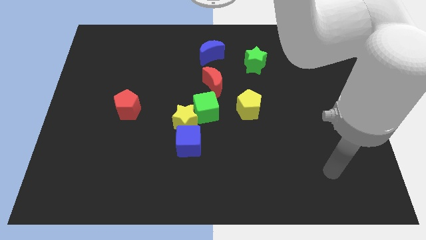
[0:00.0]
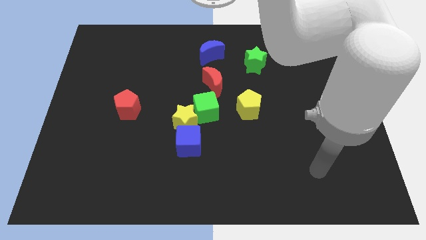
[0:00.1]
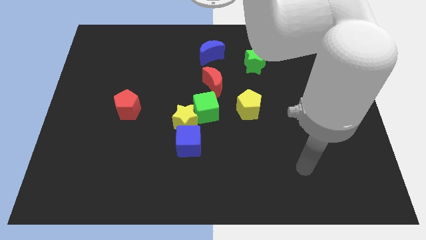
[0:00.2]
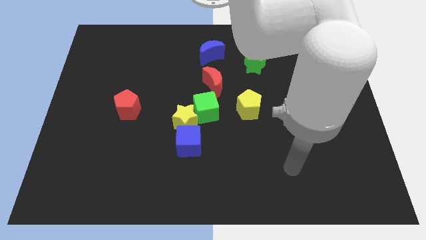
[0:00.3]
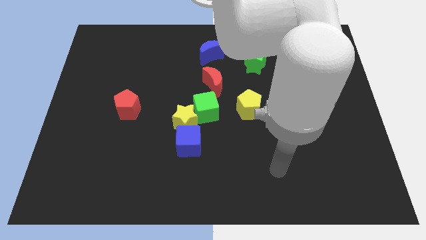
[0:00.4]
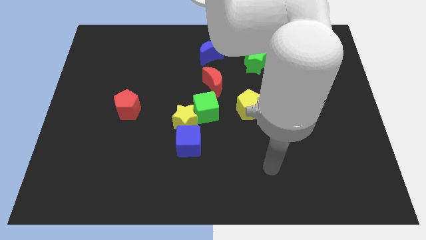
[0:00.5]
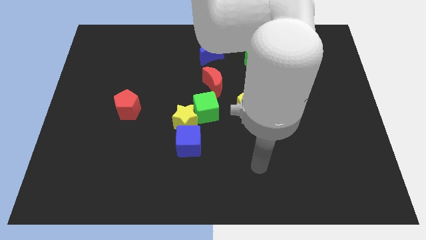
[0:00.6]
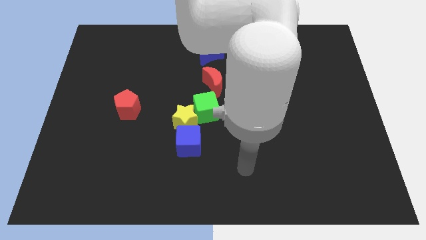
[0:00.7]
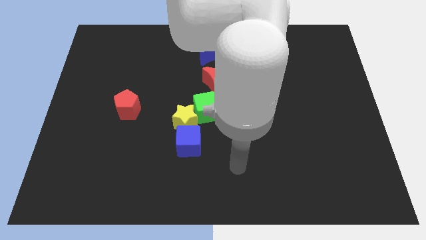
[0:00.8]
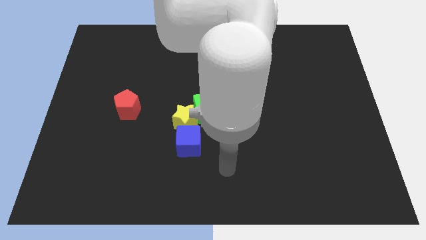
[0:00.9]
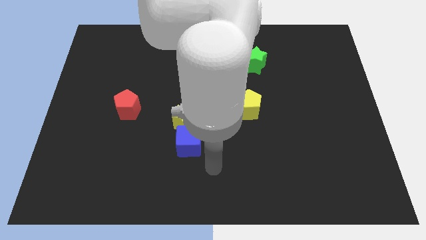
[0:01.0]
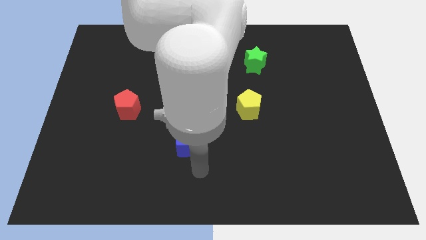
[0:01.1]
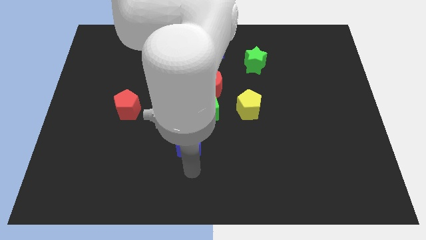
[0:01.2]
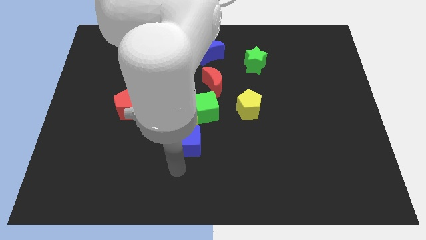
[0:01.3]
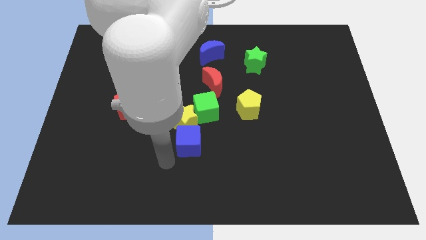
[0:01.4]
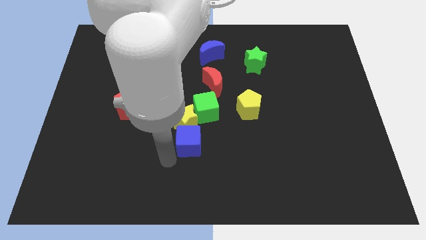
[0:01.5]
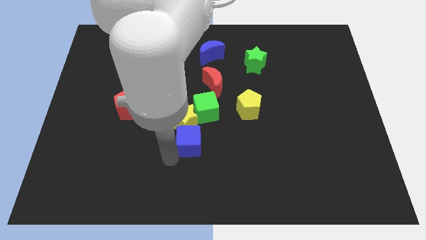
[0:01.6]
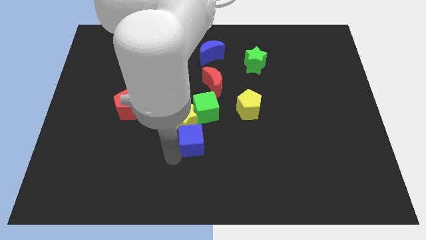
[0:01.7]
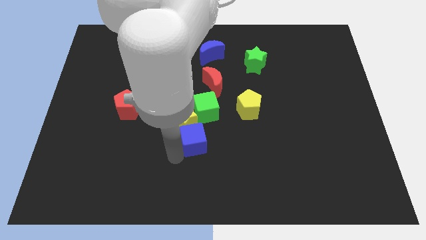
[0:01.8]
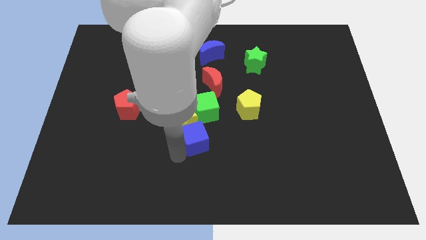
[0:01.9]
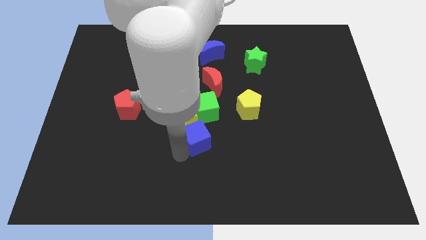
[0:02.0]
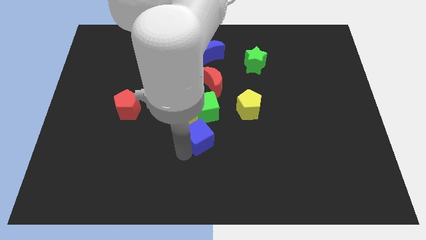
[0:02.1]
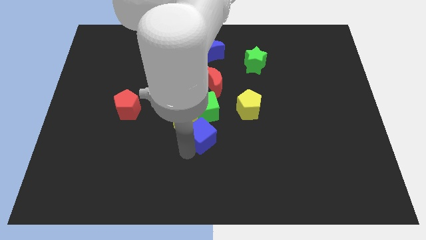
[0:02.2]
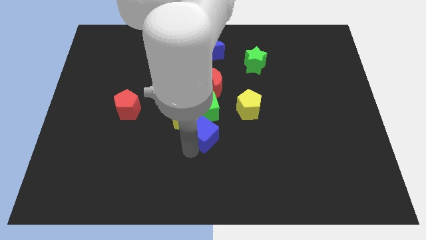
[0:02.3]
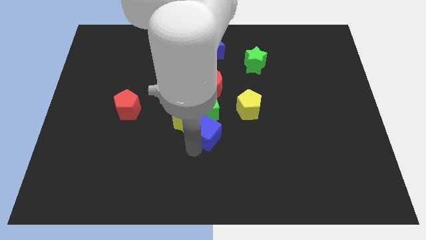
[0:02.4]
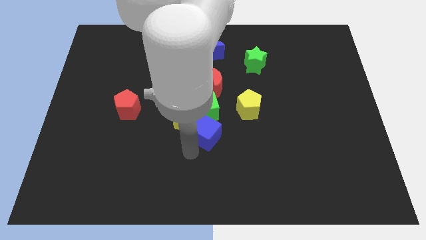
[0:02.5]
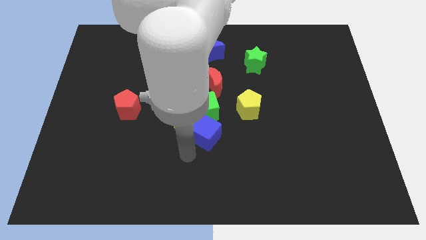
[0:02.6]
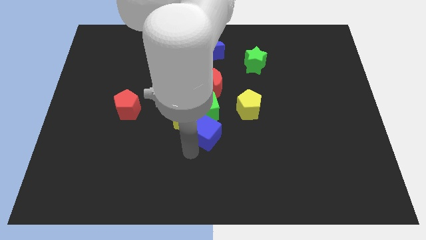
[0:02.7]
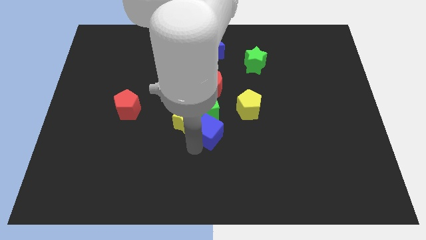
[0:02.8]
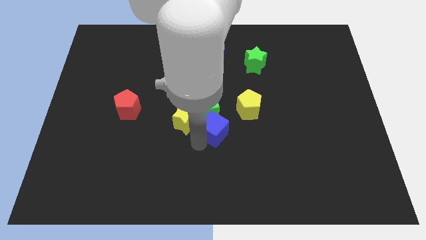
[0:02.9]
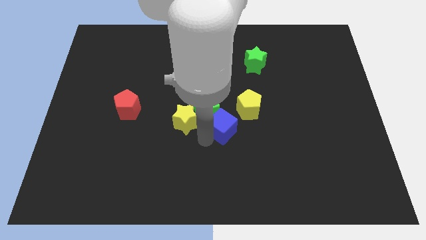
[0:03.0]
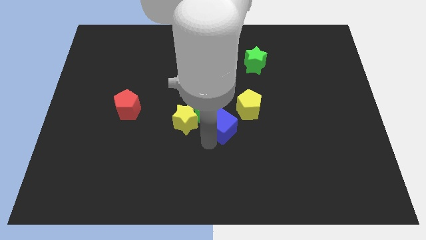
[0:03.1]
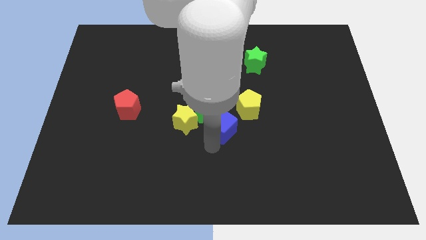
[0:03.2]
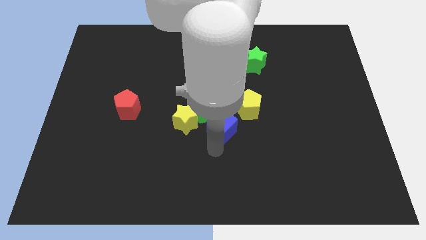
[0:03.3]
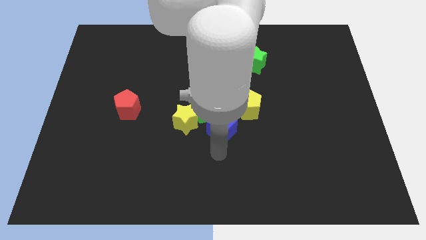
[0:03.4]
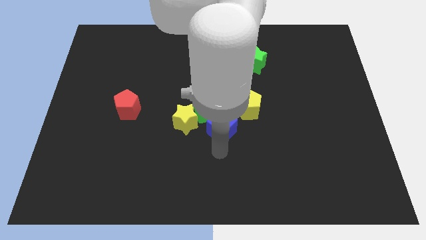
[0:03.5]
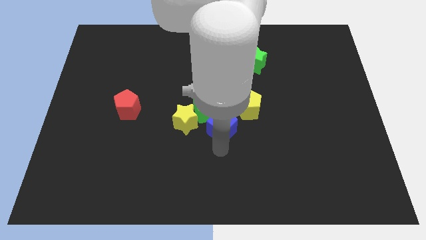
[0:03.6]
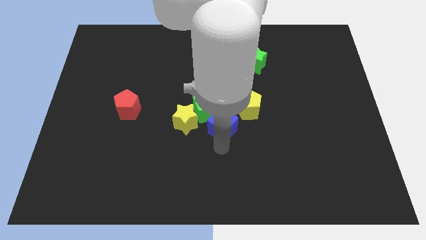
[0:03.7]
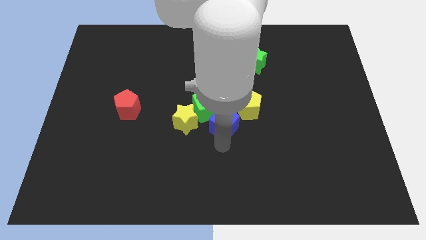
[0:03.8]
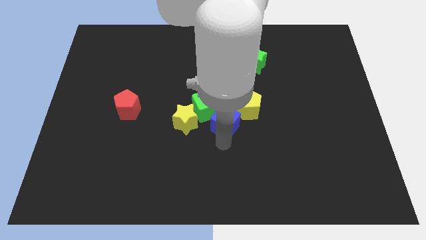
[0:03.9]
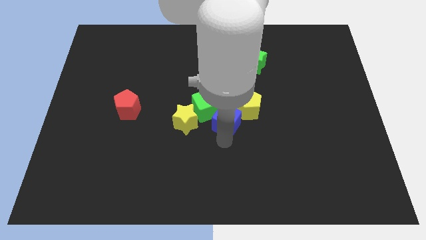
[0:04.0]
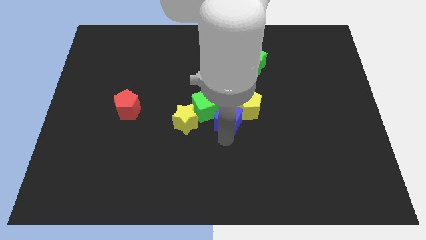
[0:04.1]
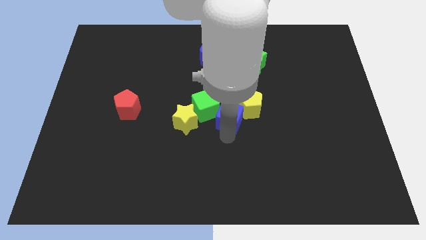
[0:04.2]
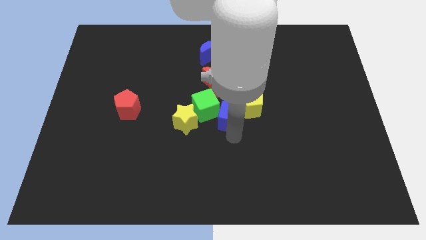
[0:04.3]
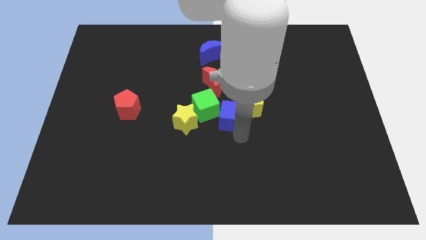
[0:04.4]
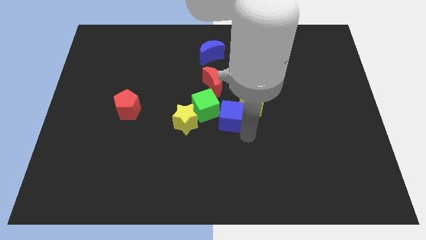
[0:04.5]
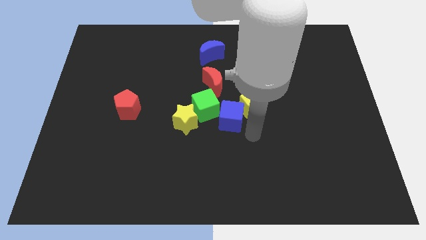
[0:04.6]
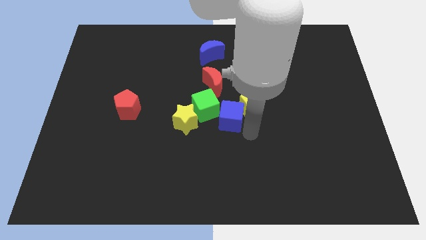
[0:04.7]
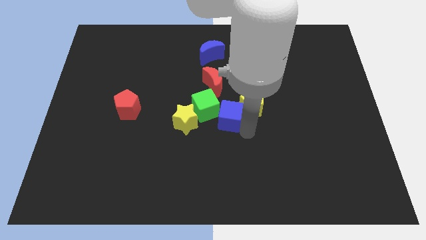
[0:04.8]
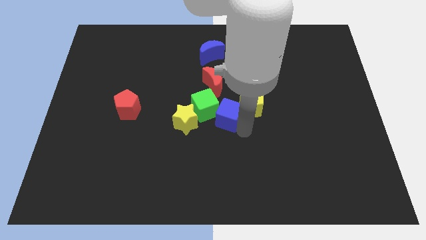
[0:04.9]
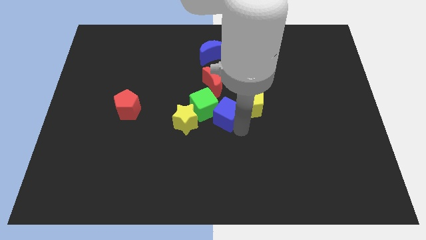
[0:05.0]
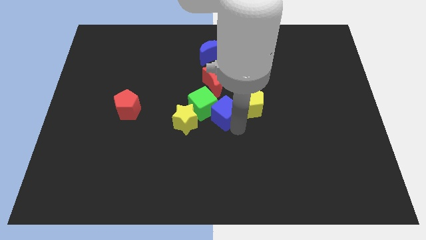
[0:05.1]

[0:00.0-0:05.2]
move the blue cube diagonally up and to the right of the yellow star

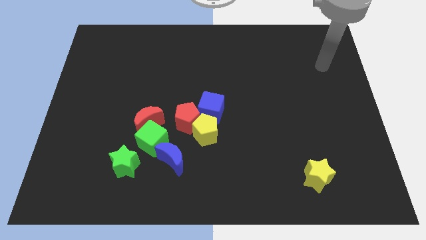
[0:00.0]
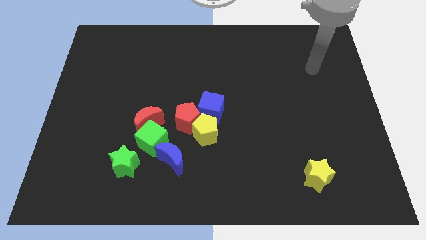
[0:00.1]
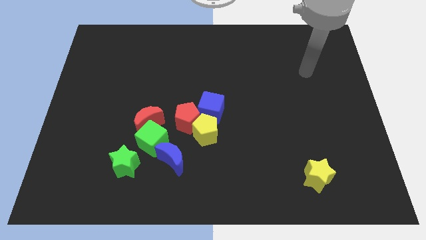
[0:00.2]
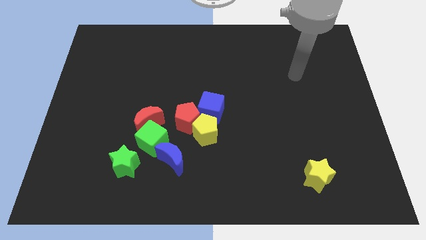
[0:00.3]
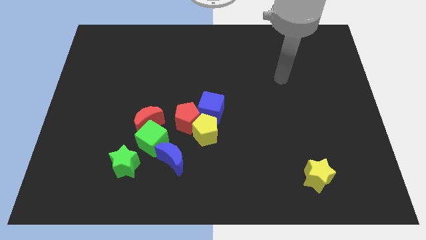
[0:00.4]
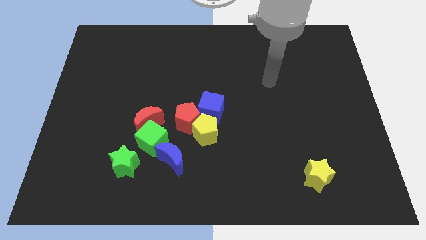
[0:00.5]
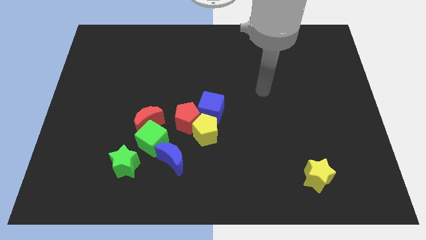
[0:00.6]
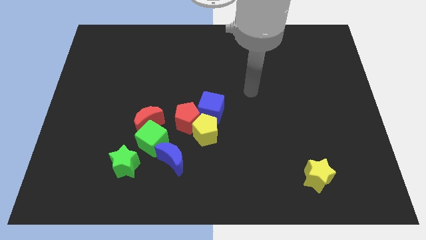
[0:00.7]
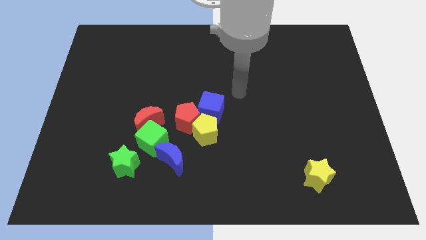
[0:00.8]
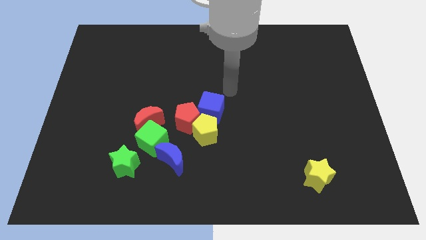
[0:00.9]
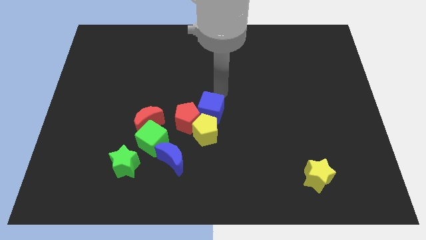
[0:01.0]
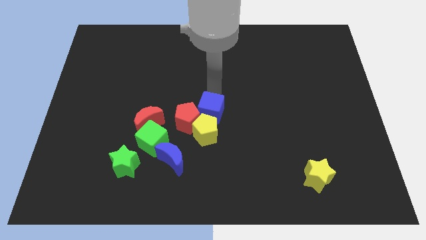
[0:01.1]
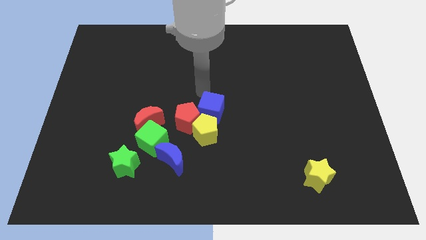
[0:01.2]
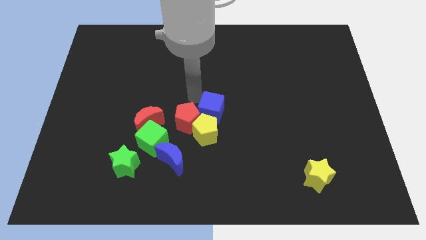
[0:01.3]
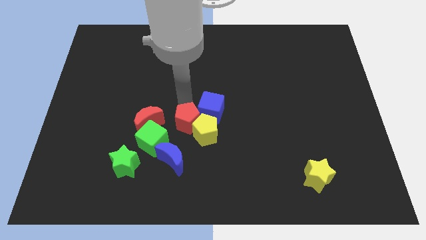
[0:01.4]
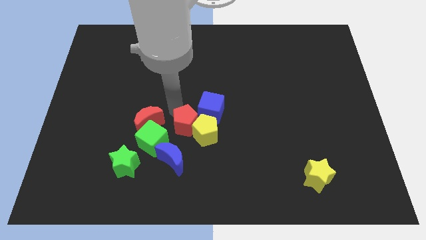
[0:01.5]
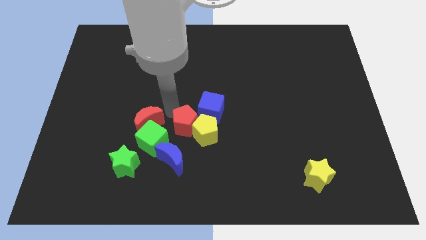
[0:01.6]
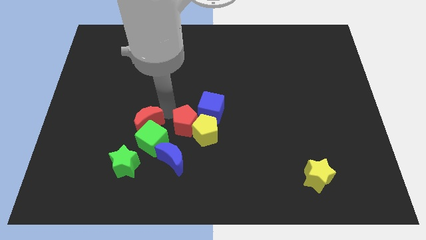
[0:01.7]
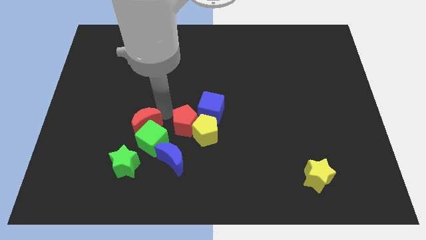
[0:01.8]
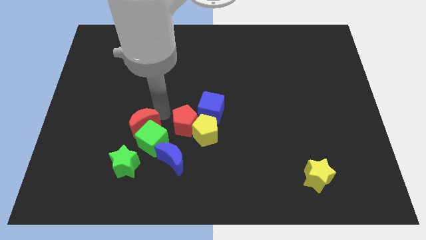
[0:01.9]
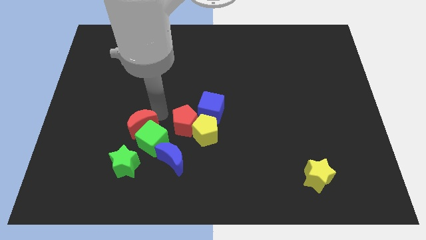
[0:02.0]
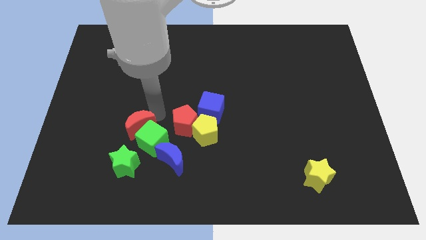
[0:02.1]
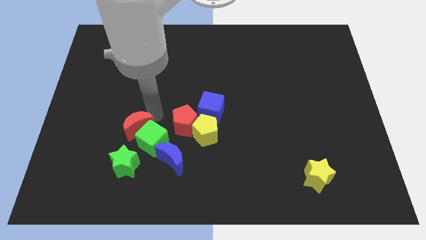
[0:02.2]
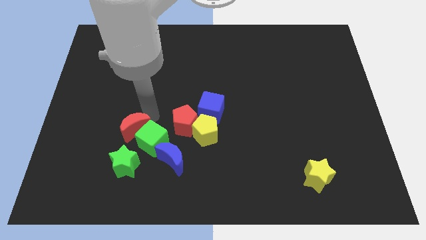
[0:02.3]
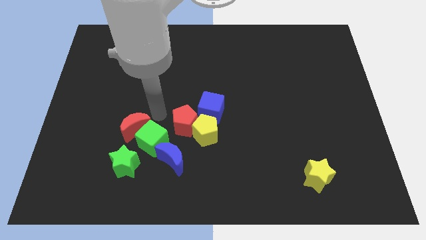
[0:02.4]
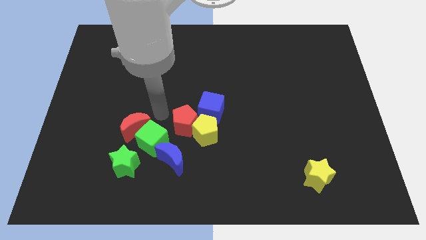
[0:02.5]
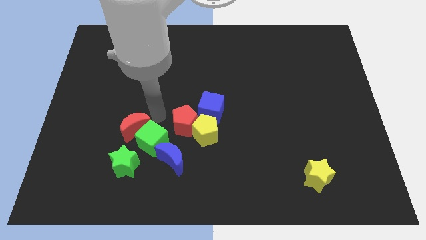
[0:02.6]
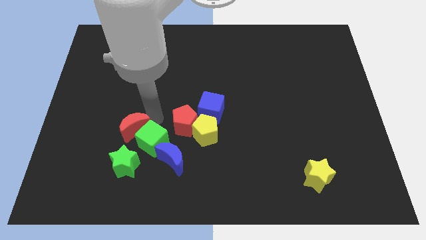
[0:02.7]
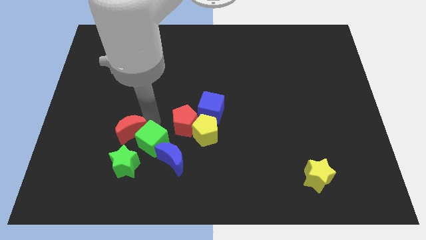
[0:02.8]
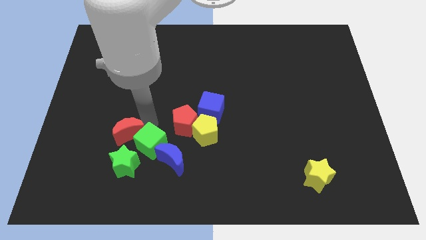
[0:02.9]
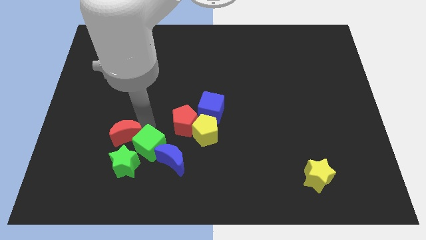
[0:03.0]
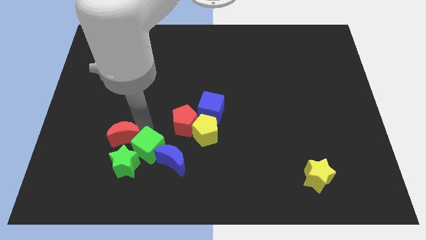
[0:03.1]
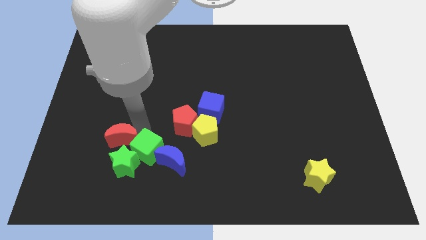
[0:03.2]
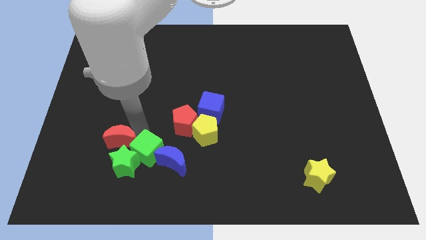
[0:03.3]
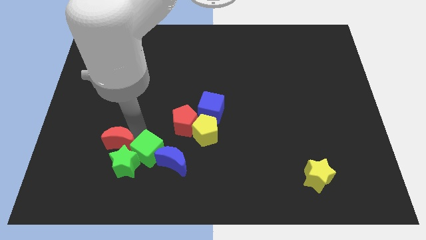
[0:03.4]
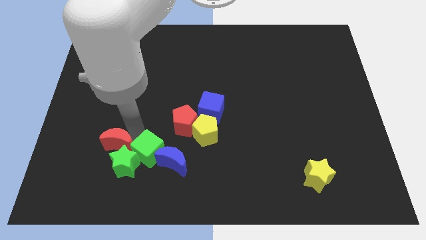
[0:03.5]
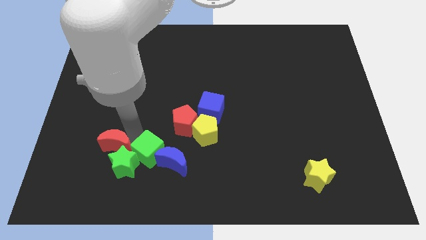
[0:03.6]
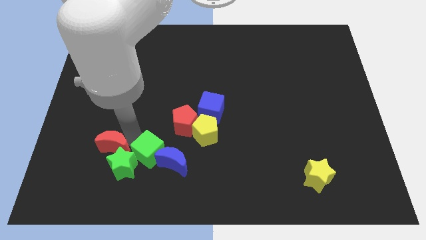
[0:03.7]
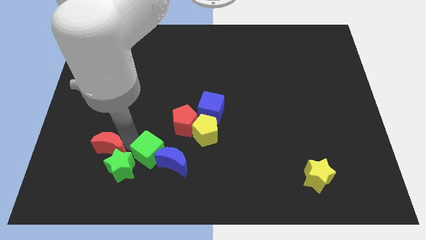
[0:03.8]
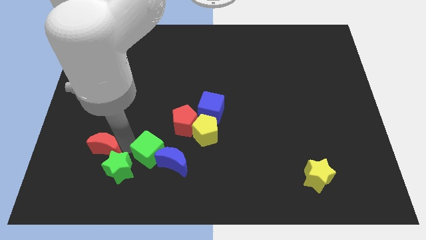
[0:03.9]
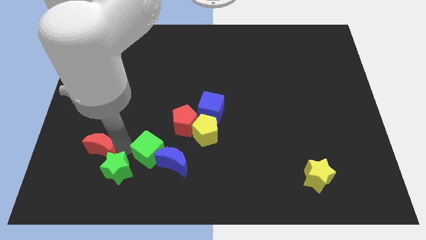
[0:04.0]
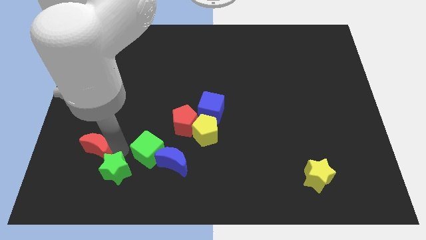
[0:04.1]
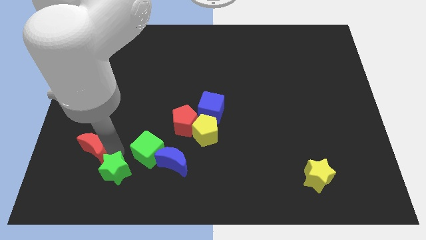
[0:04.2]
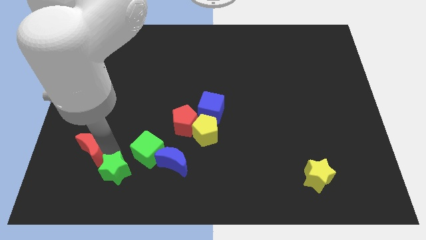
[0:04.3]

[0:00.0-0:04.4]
slide the red moon just left of the green star
